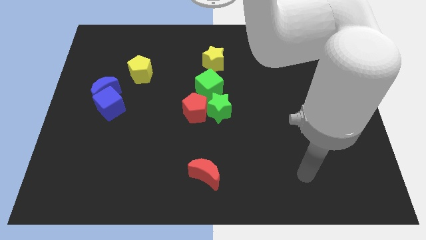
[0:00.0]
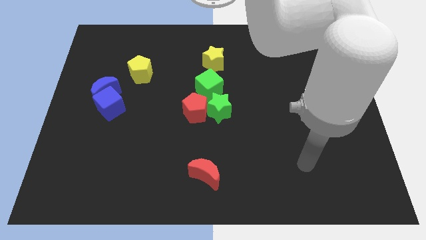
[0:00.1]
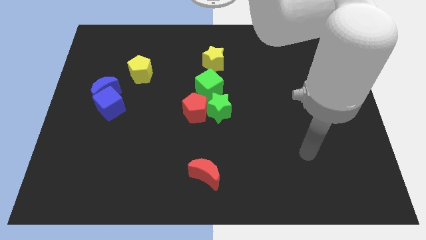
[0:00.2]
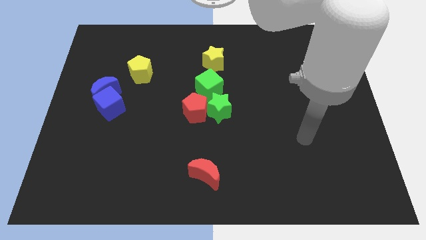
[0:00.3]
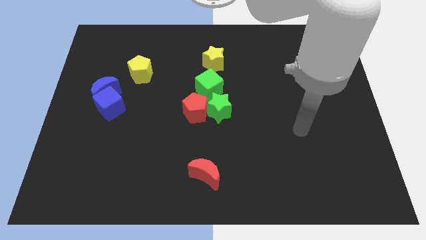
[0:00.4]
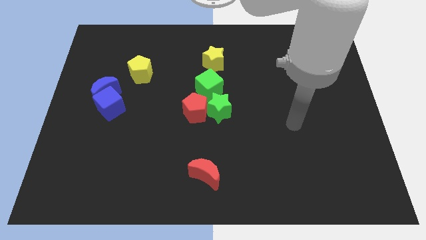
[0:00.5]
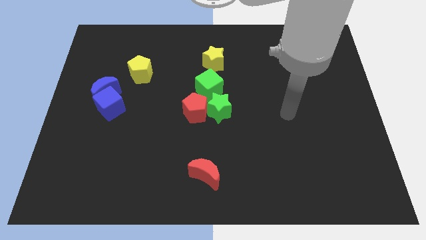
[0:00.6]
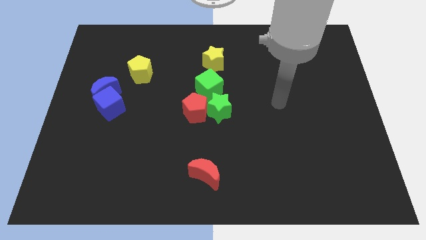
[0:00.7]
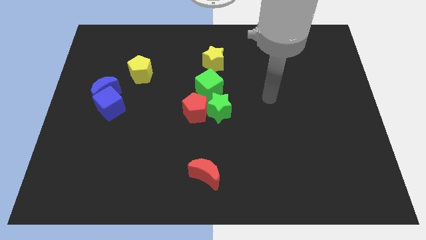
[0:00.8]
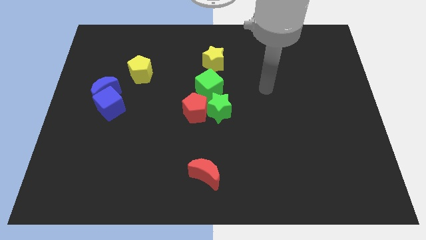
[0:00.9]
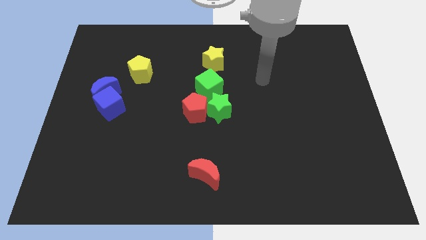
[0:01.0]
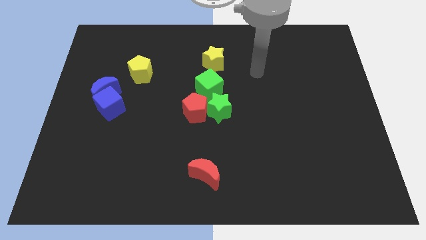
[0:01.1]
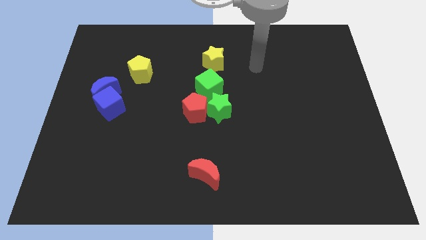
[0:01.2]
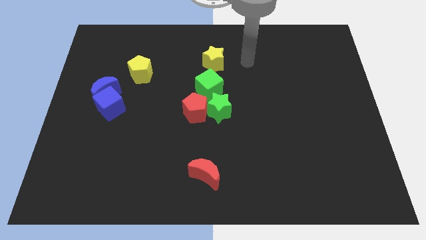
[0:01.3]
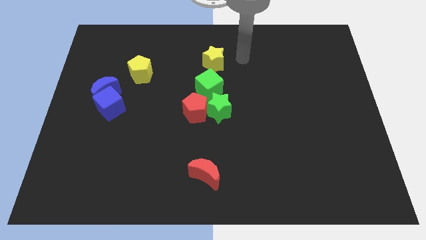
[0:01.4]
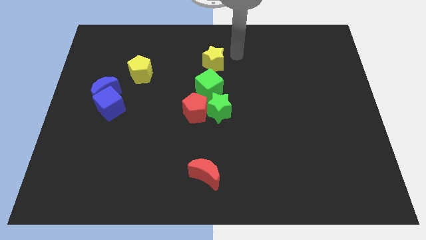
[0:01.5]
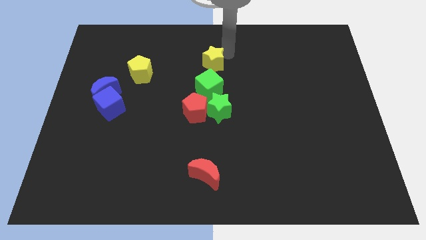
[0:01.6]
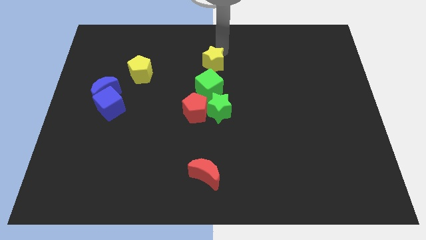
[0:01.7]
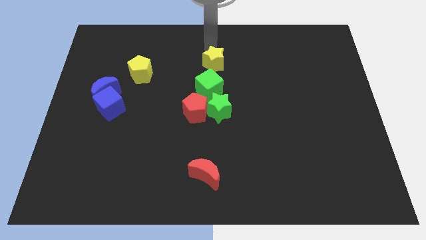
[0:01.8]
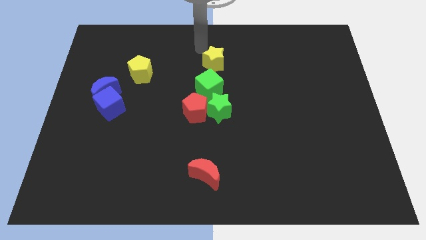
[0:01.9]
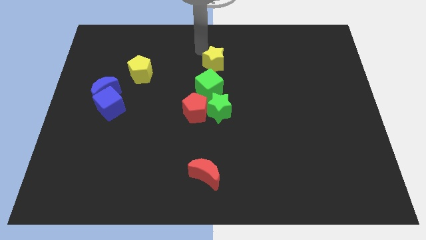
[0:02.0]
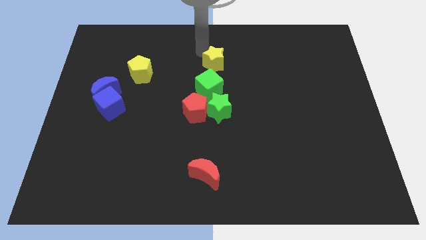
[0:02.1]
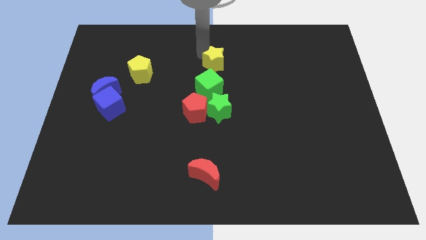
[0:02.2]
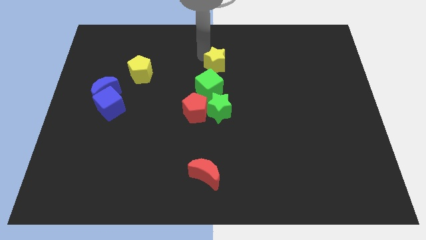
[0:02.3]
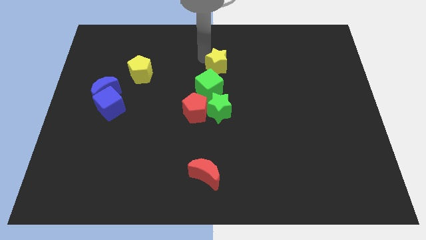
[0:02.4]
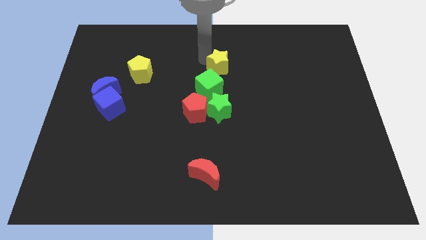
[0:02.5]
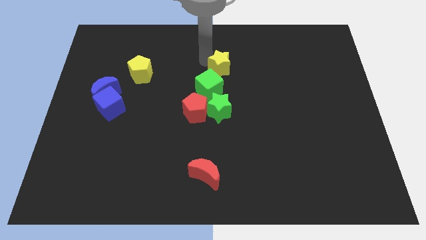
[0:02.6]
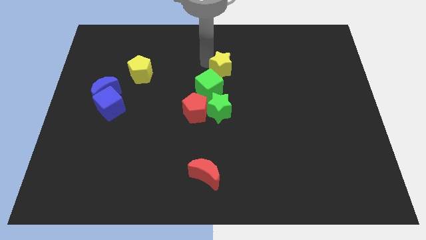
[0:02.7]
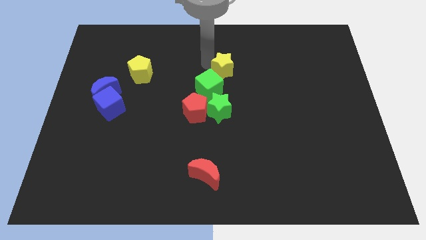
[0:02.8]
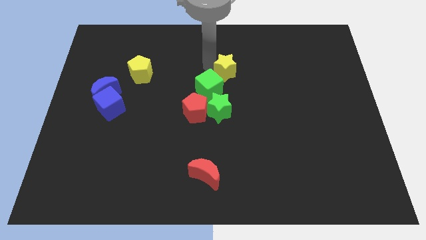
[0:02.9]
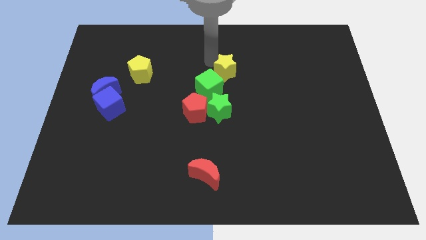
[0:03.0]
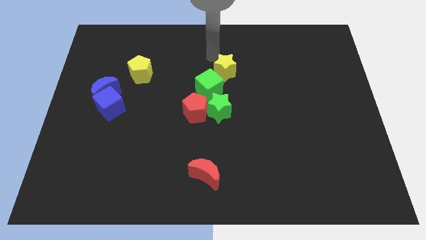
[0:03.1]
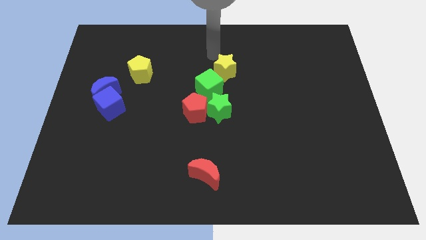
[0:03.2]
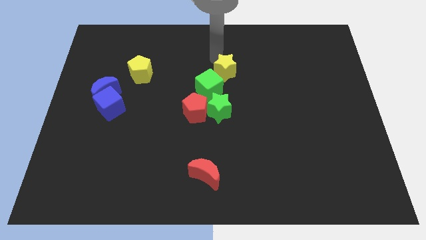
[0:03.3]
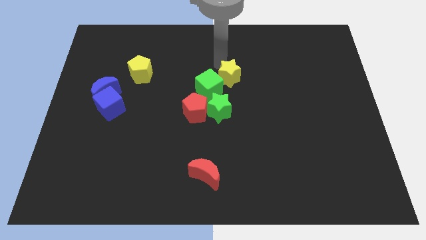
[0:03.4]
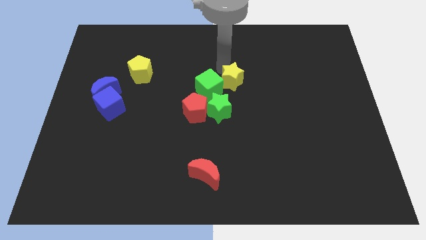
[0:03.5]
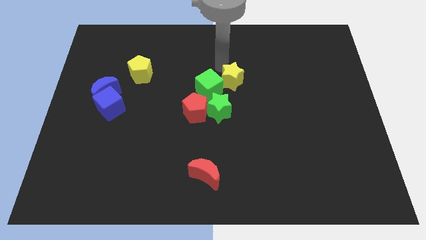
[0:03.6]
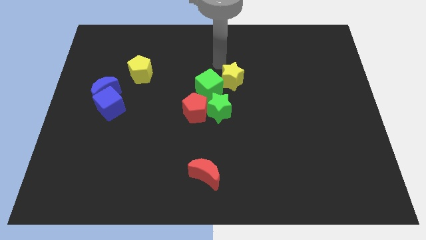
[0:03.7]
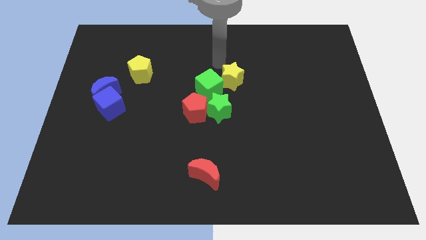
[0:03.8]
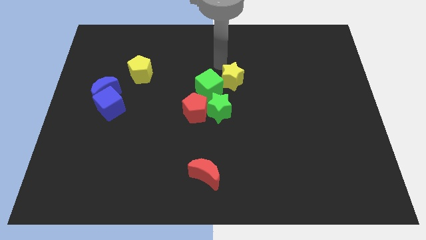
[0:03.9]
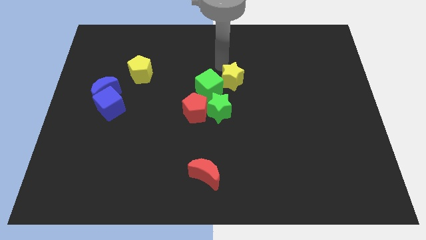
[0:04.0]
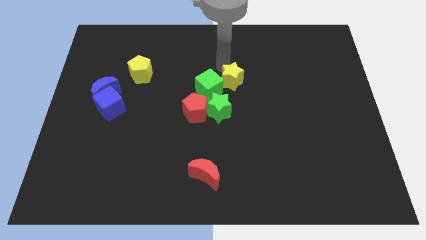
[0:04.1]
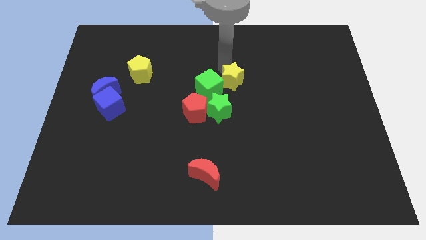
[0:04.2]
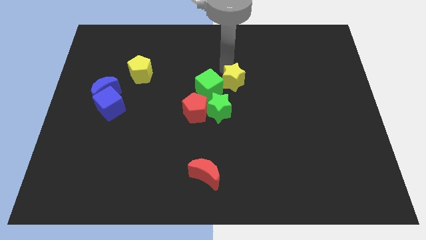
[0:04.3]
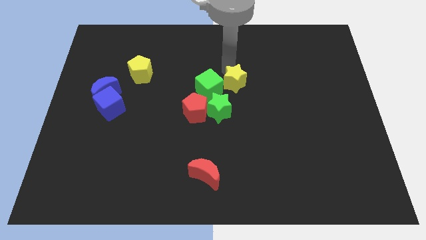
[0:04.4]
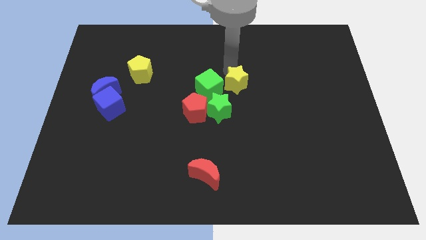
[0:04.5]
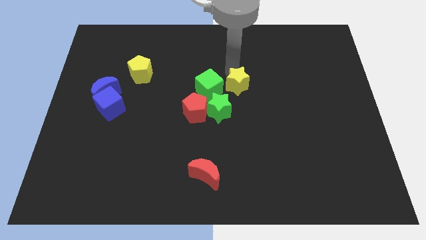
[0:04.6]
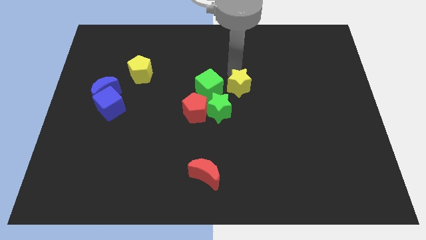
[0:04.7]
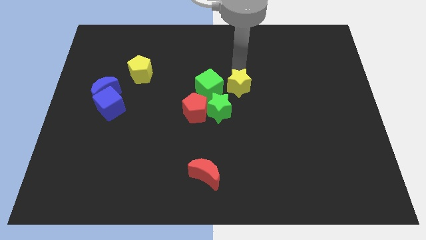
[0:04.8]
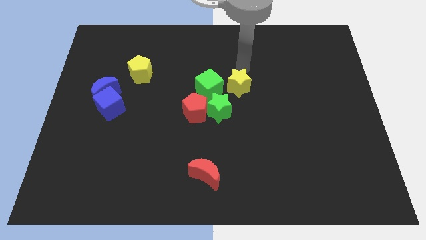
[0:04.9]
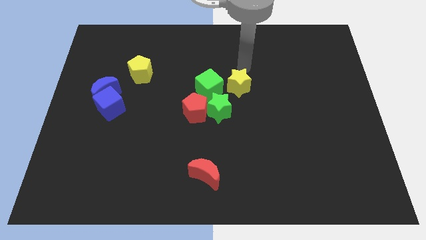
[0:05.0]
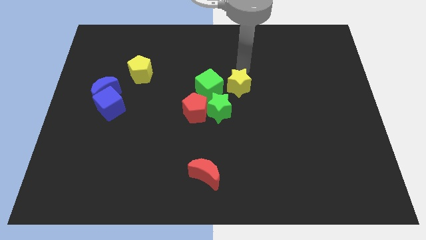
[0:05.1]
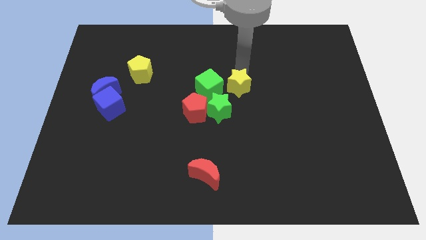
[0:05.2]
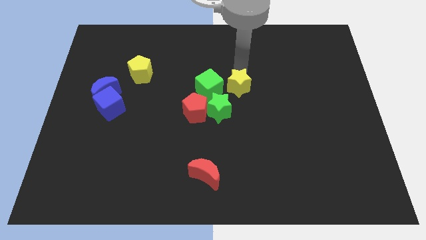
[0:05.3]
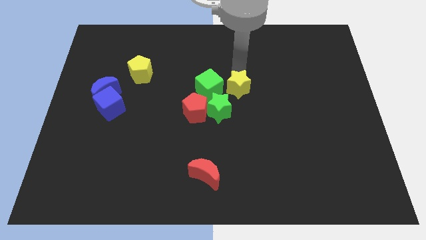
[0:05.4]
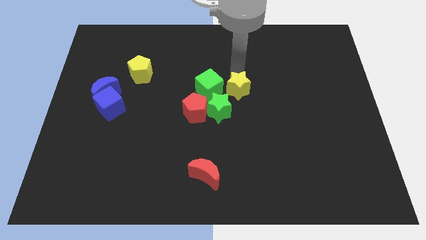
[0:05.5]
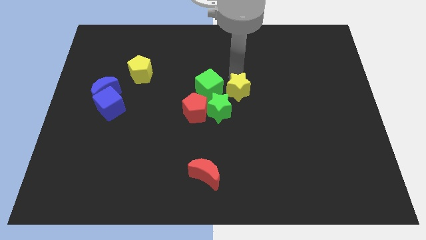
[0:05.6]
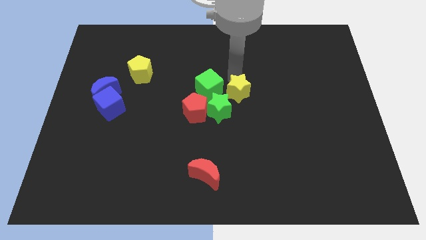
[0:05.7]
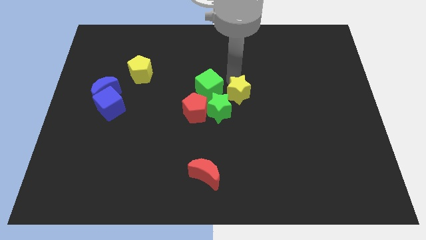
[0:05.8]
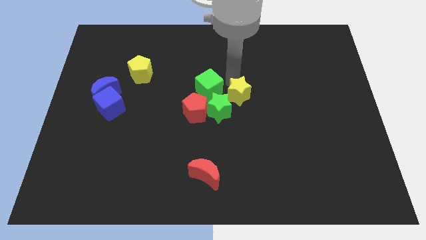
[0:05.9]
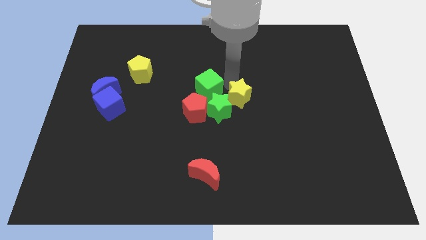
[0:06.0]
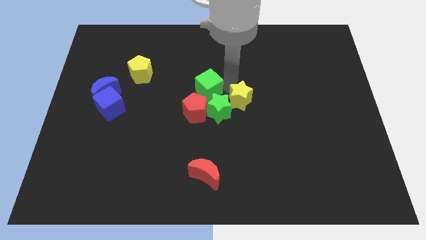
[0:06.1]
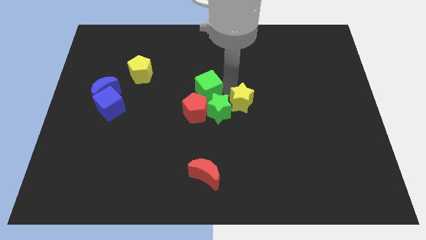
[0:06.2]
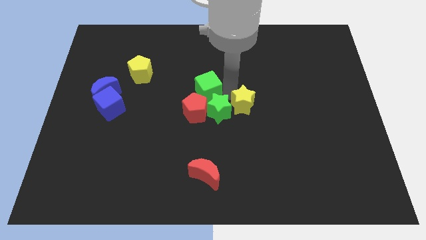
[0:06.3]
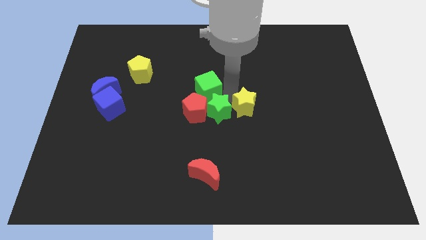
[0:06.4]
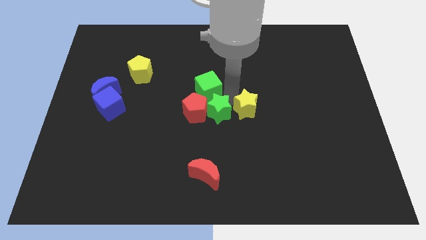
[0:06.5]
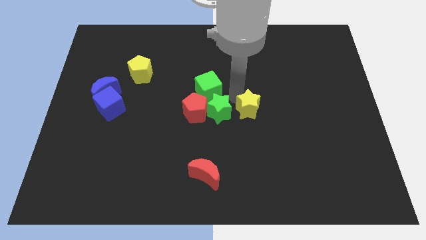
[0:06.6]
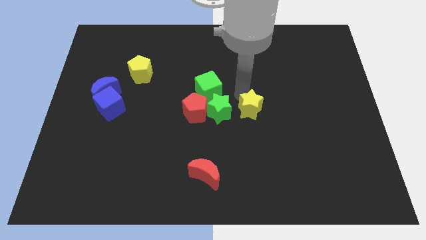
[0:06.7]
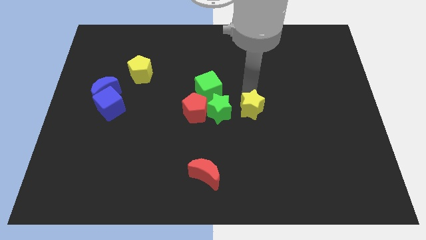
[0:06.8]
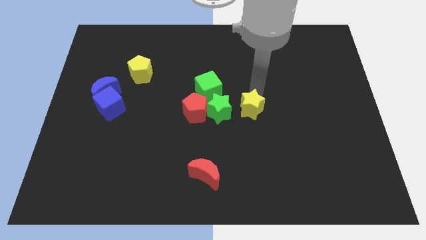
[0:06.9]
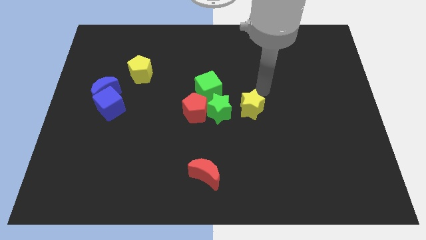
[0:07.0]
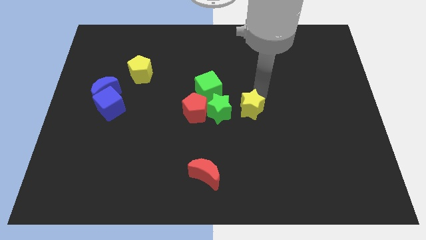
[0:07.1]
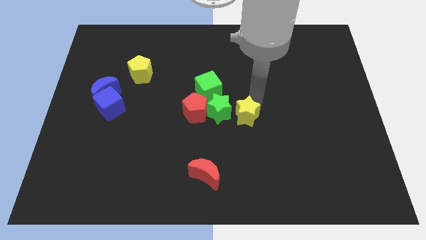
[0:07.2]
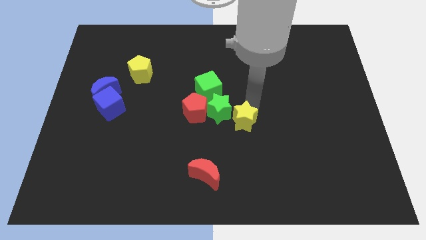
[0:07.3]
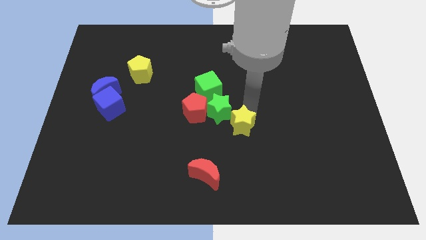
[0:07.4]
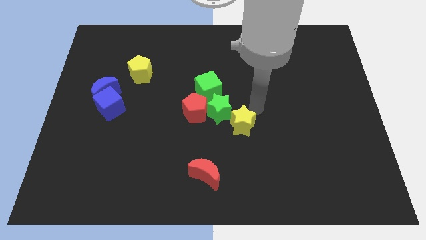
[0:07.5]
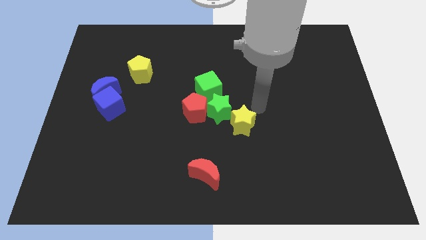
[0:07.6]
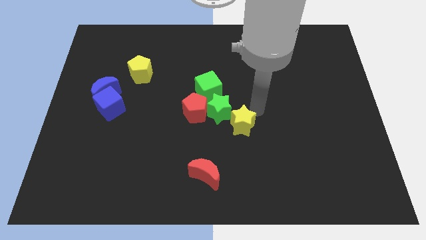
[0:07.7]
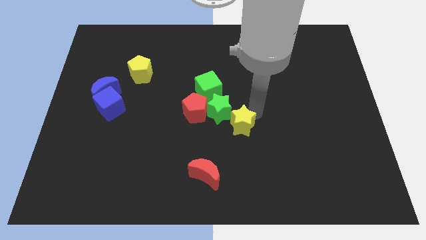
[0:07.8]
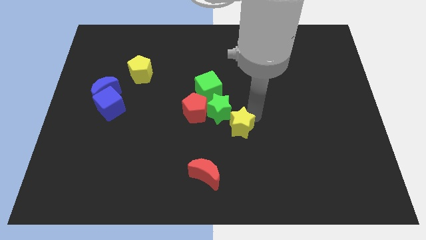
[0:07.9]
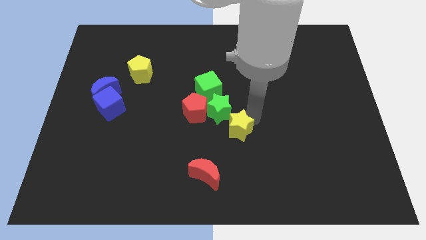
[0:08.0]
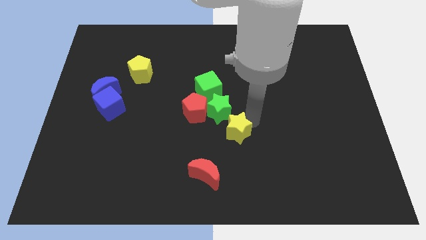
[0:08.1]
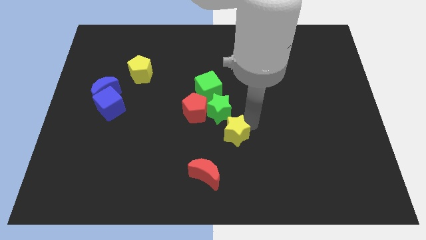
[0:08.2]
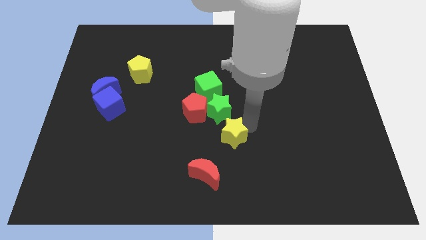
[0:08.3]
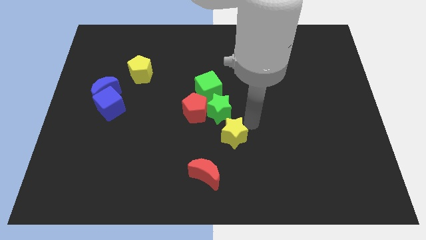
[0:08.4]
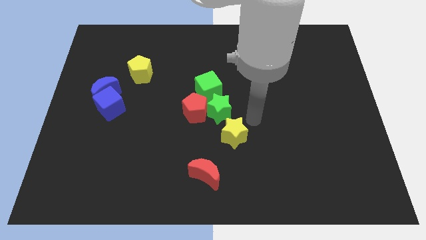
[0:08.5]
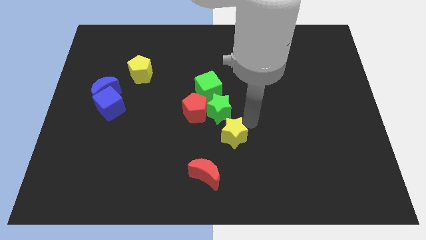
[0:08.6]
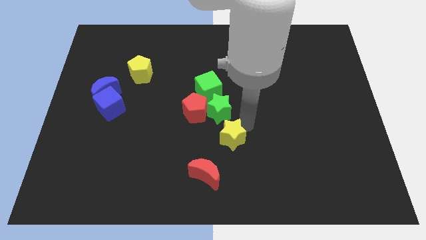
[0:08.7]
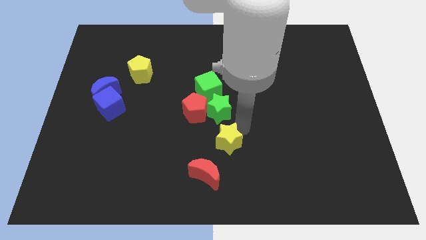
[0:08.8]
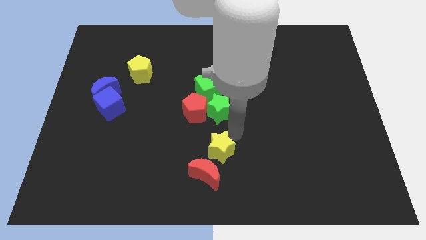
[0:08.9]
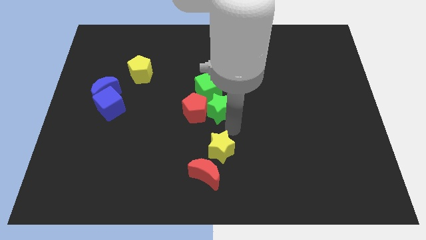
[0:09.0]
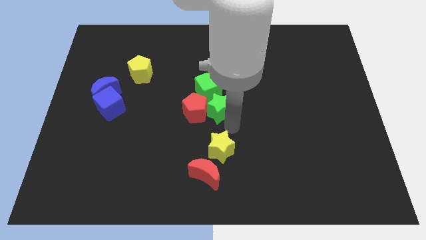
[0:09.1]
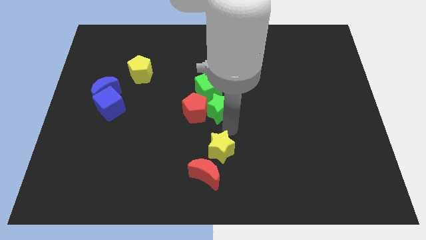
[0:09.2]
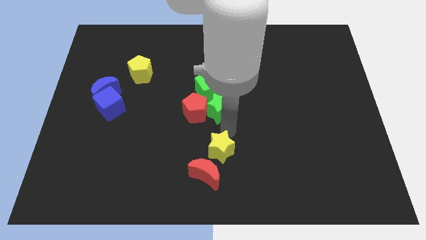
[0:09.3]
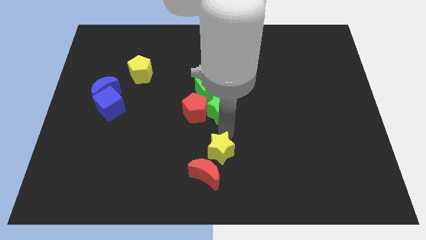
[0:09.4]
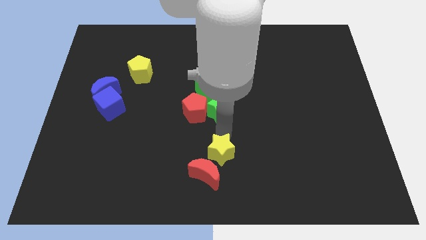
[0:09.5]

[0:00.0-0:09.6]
push the yellow star close to the red moon
